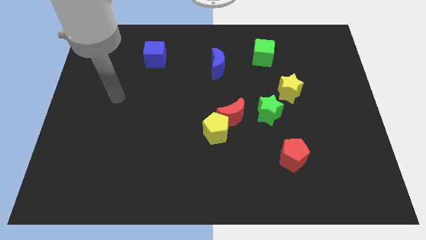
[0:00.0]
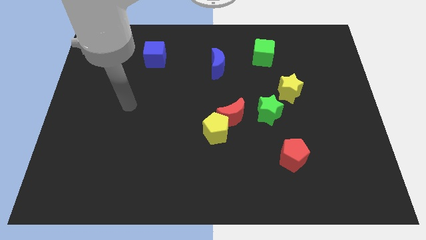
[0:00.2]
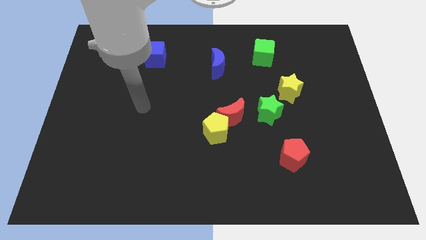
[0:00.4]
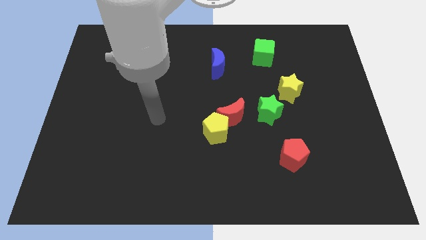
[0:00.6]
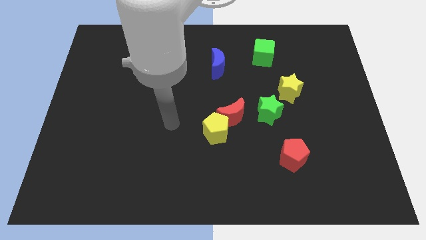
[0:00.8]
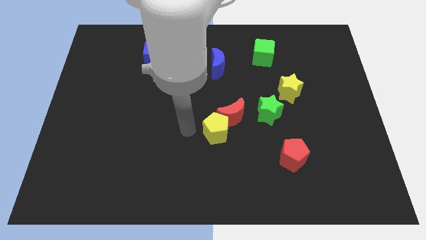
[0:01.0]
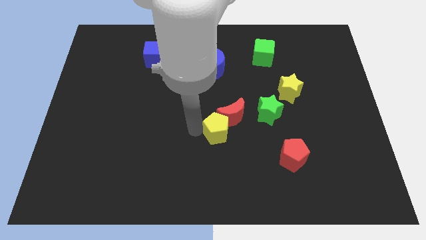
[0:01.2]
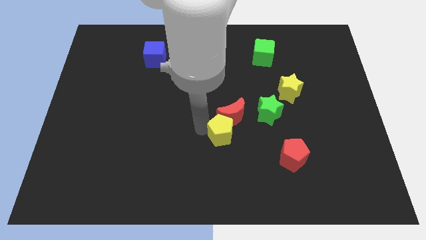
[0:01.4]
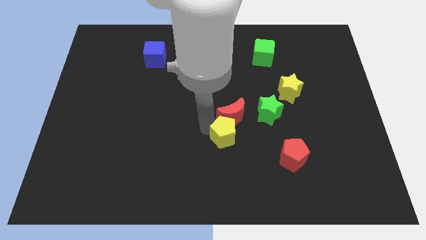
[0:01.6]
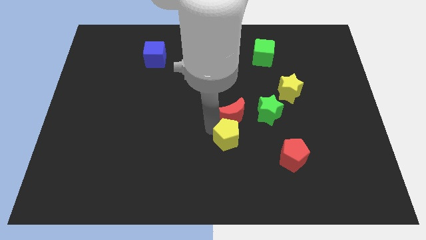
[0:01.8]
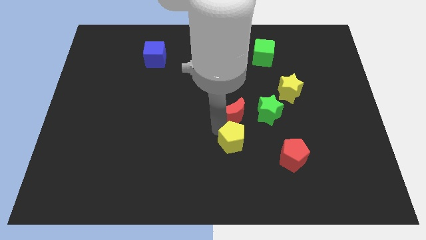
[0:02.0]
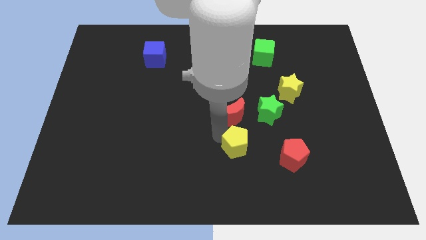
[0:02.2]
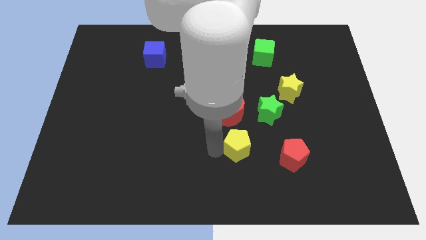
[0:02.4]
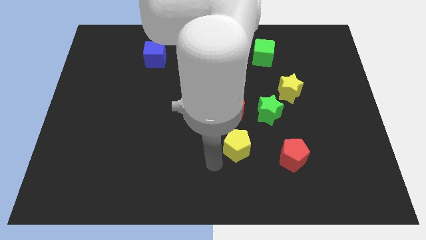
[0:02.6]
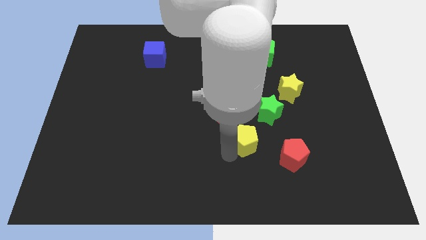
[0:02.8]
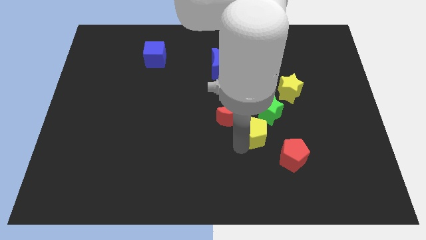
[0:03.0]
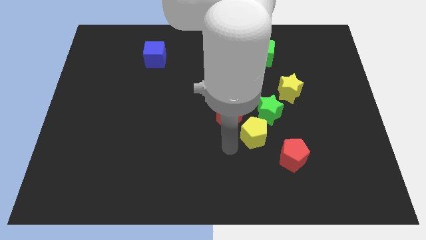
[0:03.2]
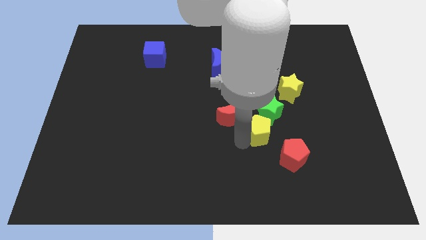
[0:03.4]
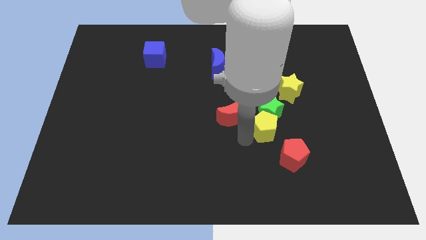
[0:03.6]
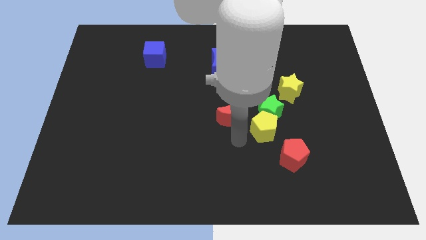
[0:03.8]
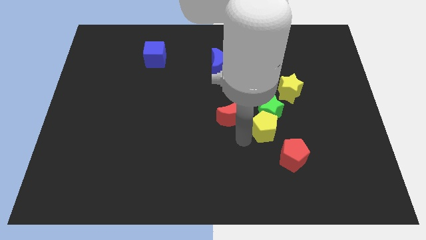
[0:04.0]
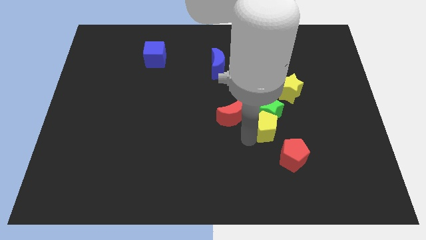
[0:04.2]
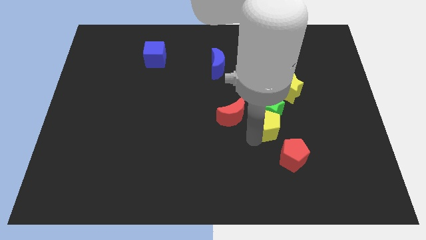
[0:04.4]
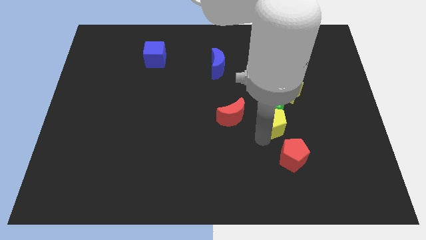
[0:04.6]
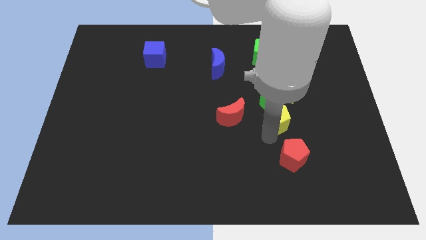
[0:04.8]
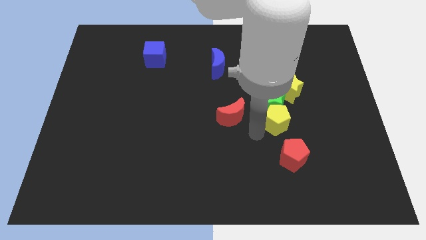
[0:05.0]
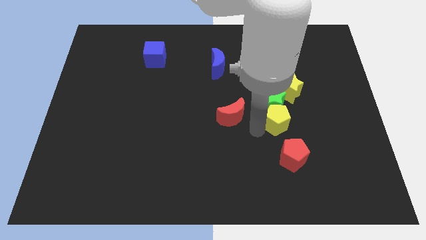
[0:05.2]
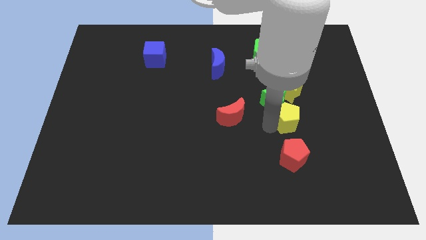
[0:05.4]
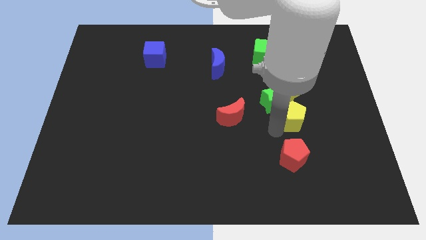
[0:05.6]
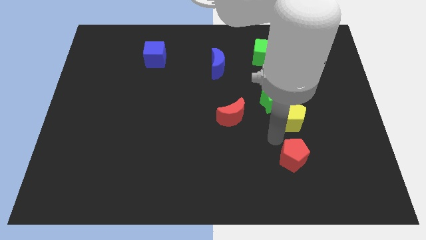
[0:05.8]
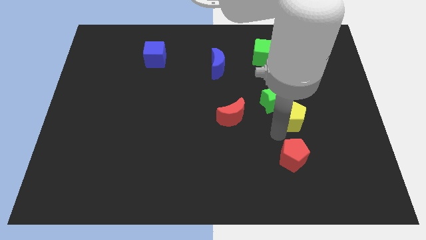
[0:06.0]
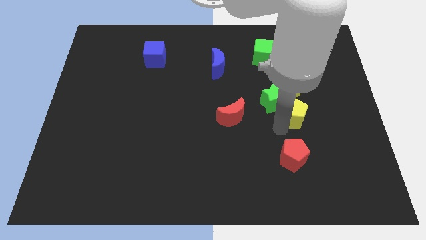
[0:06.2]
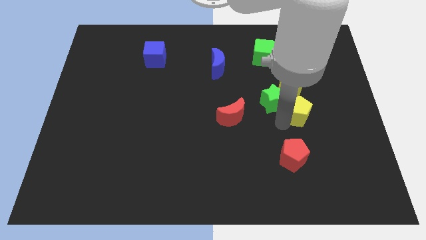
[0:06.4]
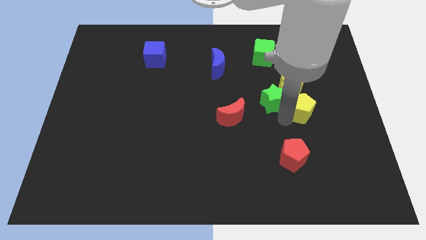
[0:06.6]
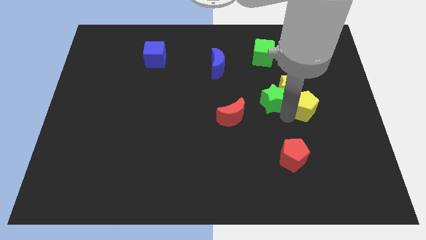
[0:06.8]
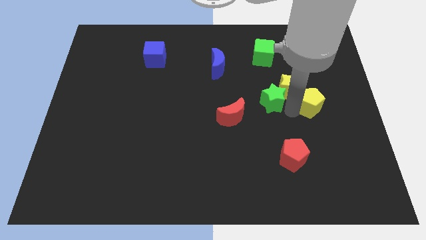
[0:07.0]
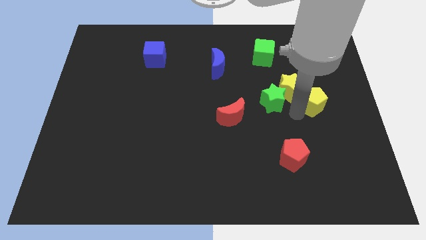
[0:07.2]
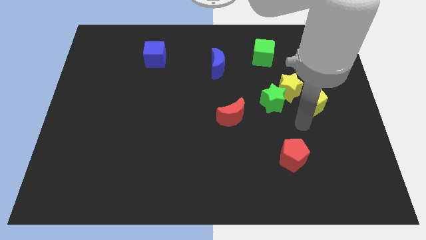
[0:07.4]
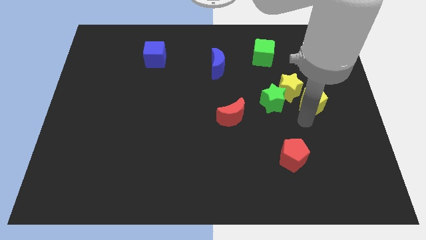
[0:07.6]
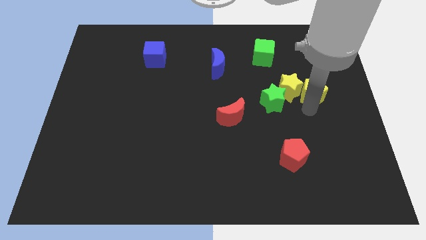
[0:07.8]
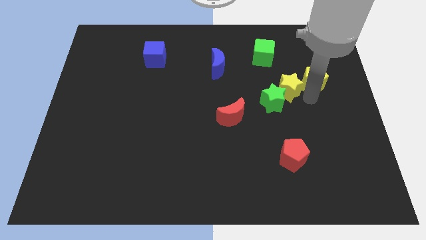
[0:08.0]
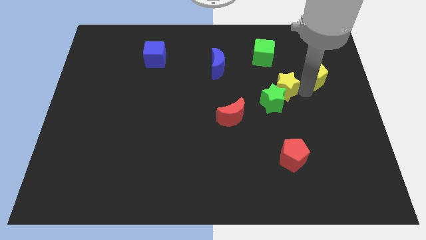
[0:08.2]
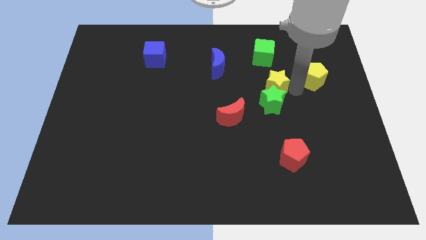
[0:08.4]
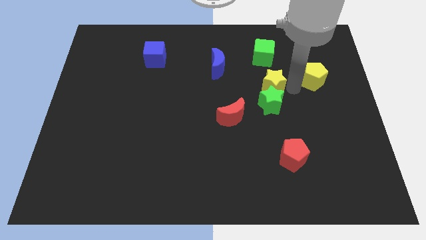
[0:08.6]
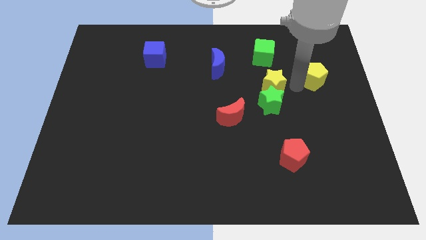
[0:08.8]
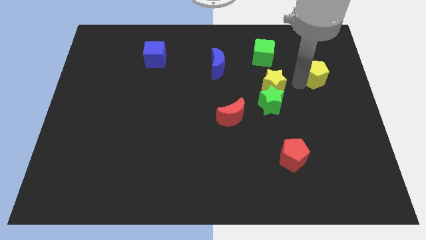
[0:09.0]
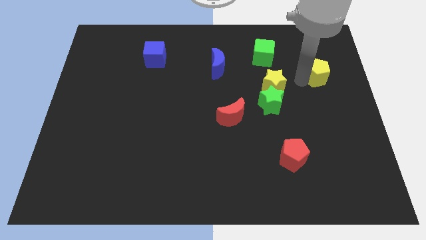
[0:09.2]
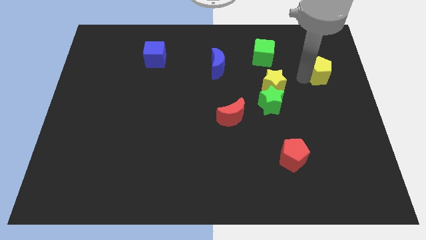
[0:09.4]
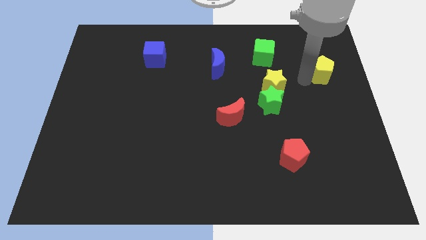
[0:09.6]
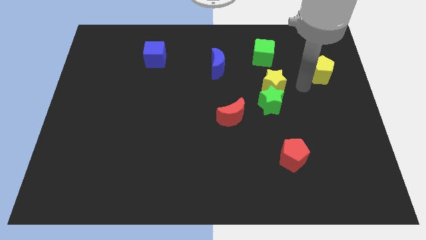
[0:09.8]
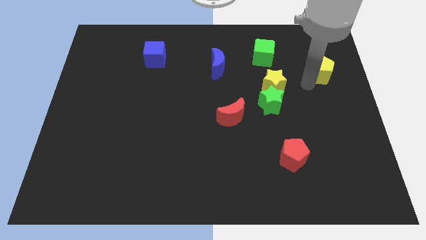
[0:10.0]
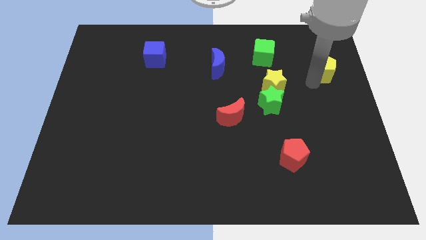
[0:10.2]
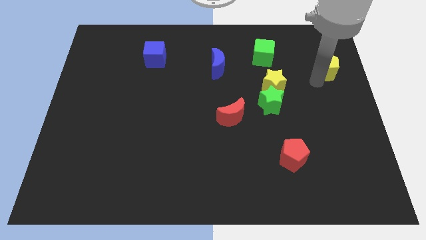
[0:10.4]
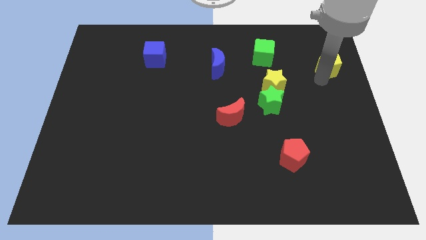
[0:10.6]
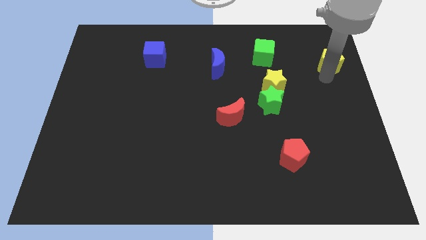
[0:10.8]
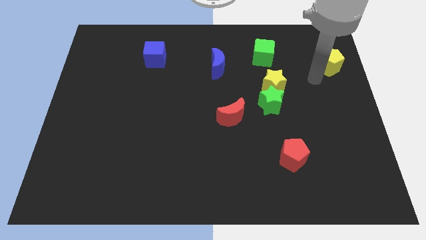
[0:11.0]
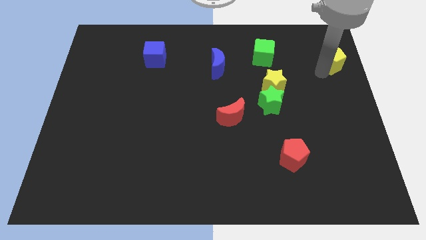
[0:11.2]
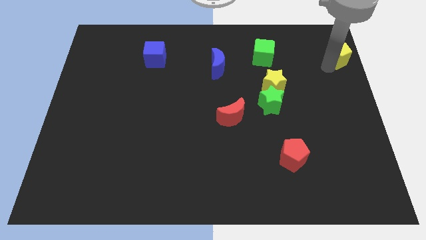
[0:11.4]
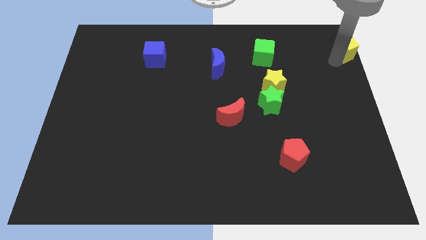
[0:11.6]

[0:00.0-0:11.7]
put the yellow pentagon to the upper right corner

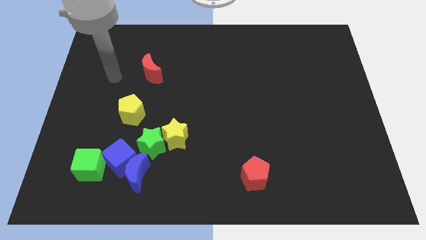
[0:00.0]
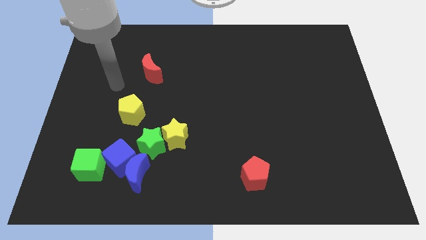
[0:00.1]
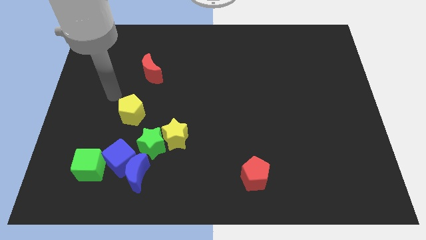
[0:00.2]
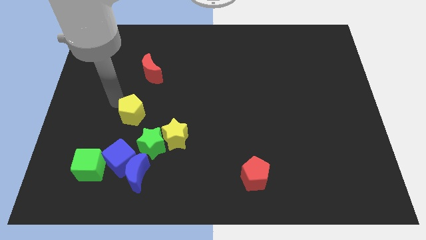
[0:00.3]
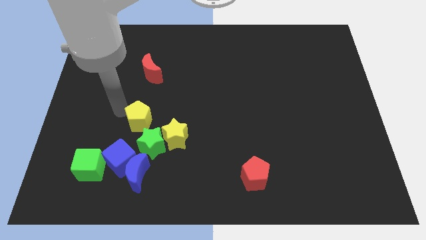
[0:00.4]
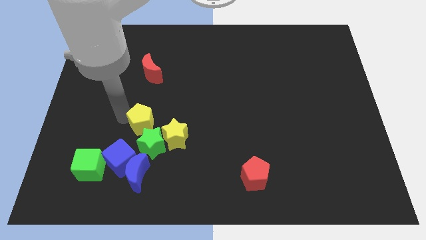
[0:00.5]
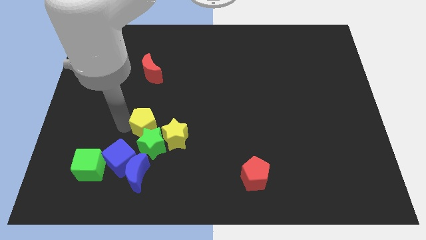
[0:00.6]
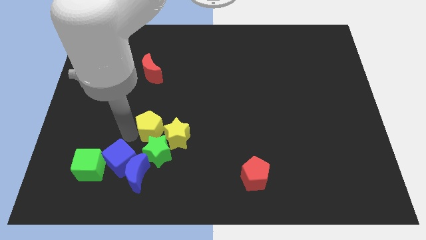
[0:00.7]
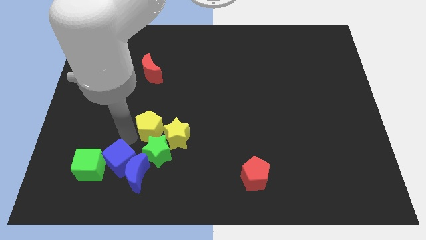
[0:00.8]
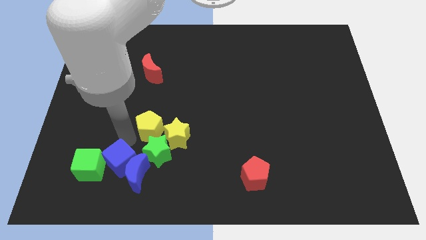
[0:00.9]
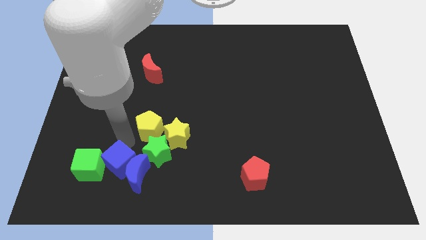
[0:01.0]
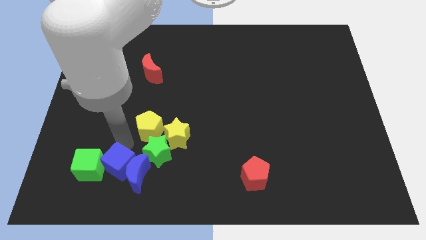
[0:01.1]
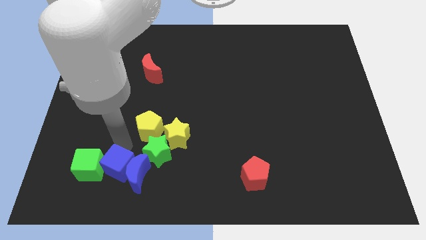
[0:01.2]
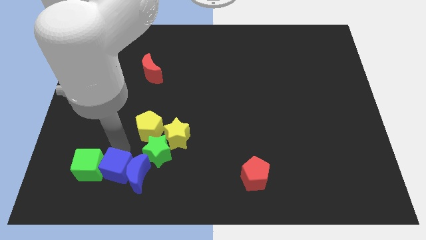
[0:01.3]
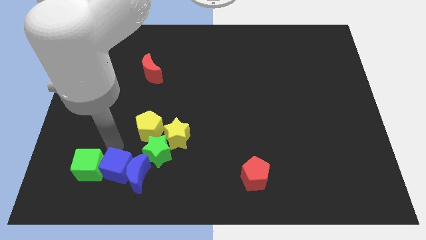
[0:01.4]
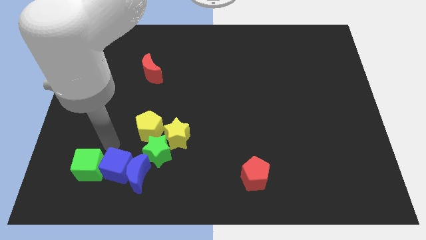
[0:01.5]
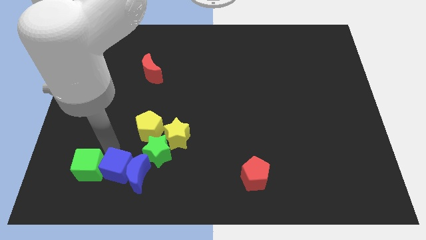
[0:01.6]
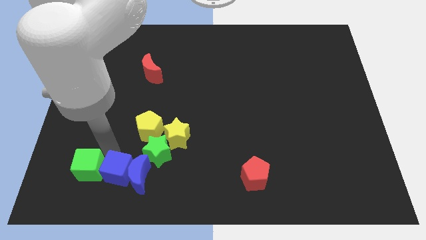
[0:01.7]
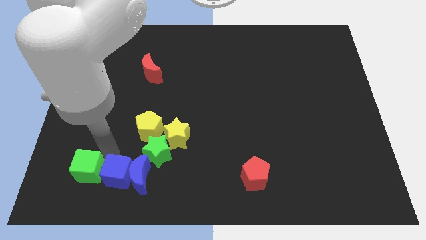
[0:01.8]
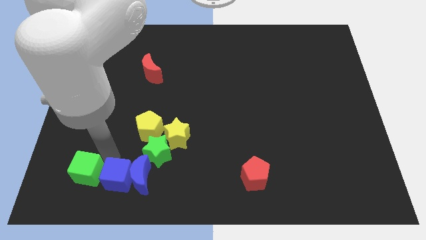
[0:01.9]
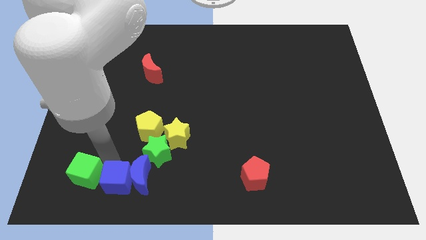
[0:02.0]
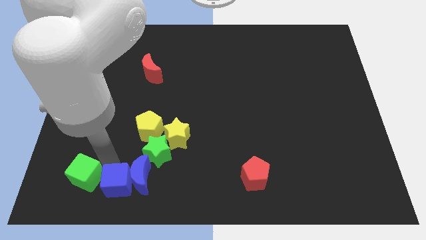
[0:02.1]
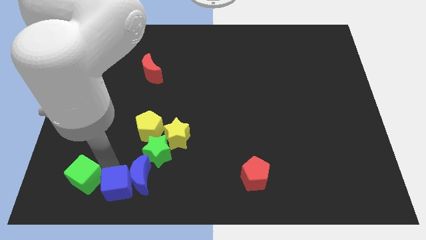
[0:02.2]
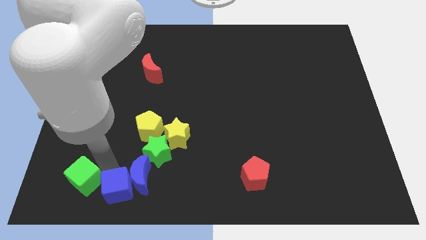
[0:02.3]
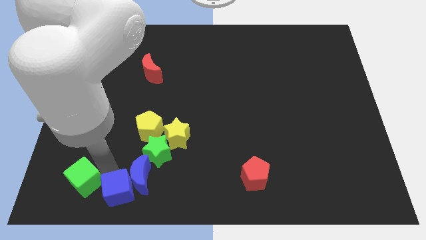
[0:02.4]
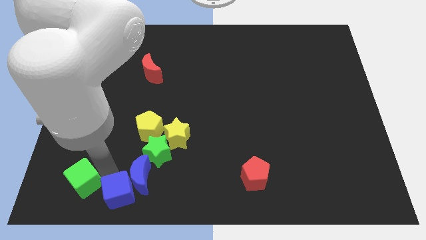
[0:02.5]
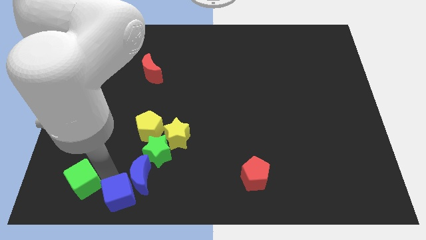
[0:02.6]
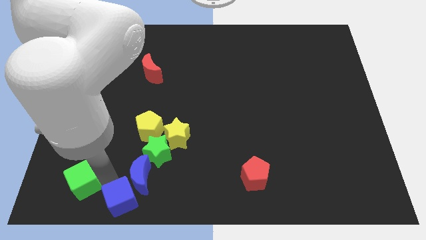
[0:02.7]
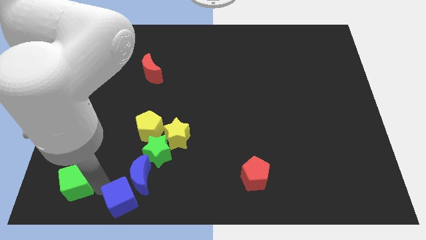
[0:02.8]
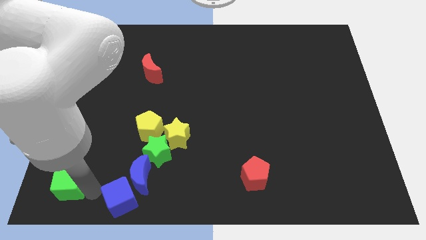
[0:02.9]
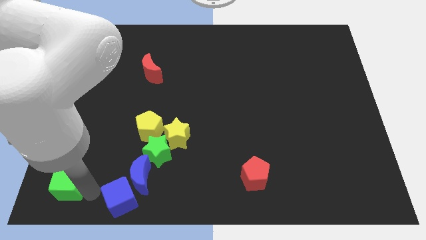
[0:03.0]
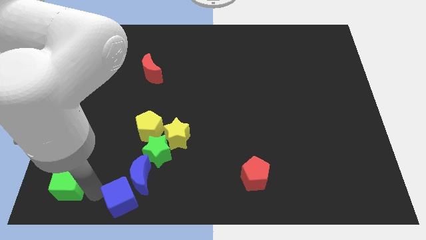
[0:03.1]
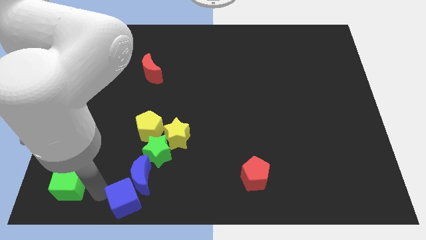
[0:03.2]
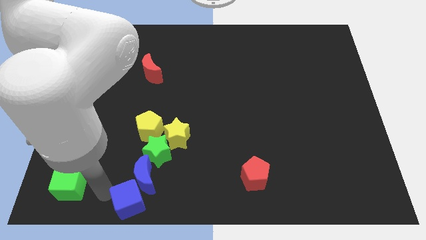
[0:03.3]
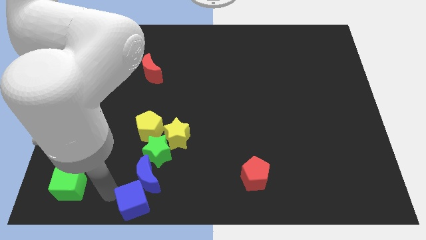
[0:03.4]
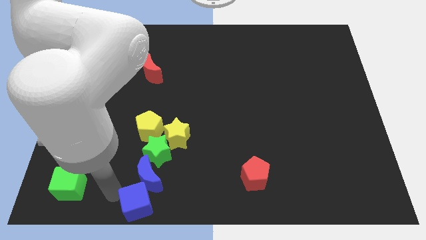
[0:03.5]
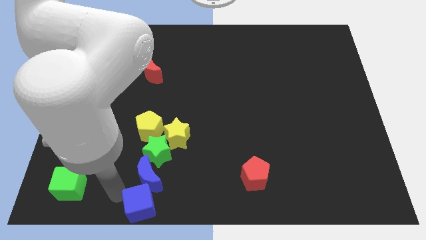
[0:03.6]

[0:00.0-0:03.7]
put the blue cube to the bottom
